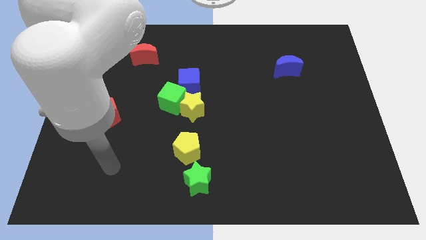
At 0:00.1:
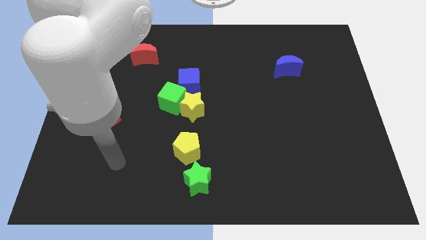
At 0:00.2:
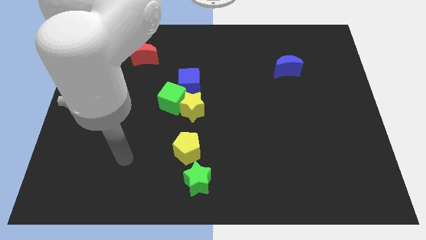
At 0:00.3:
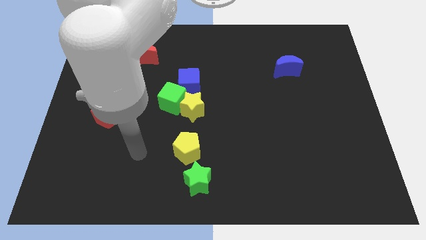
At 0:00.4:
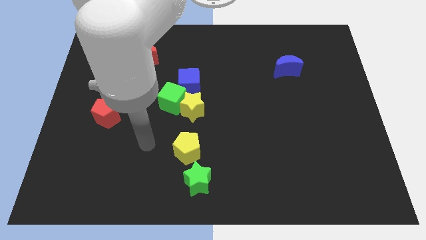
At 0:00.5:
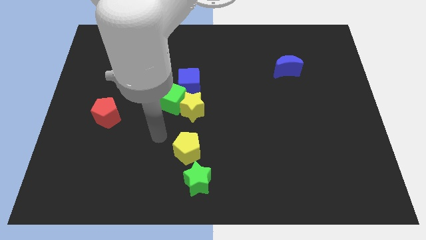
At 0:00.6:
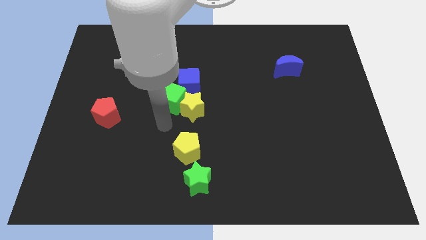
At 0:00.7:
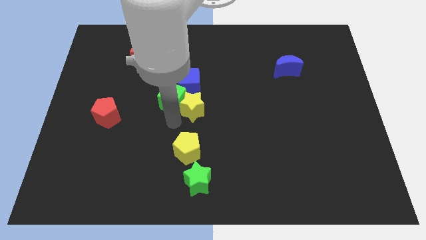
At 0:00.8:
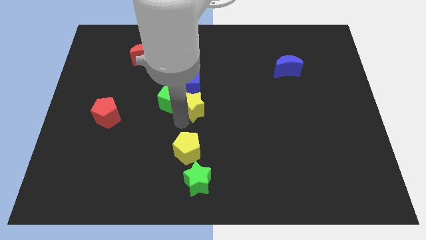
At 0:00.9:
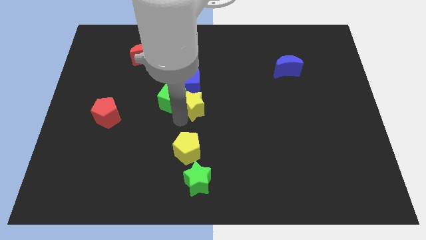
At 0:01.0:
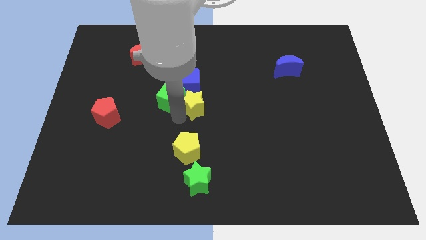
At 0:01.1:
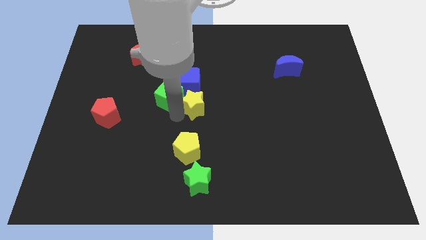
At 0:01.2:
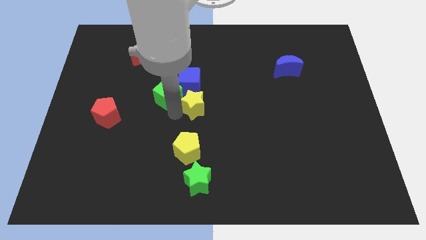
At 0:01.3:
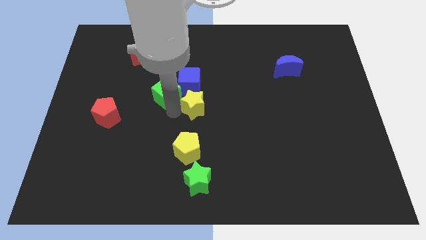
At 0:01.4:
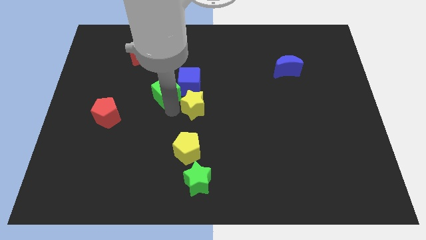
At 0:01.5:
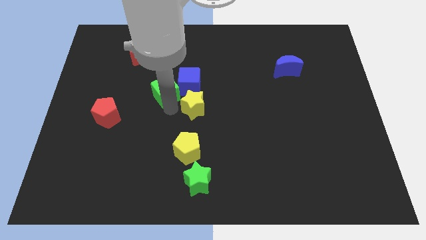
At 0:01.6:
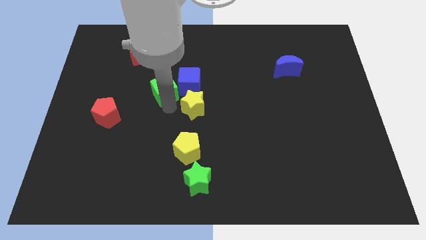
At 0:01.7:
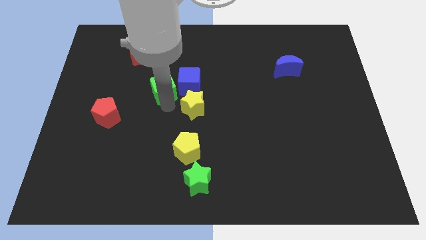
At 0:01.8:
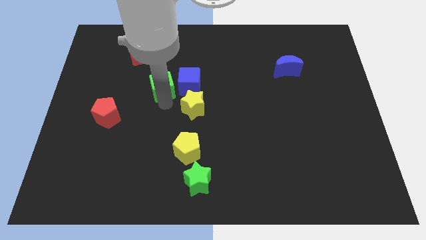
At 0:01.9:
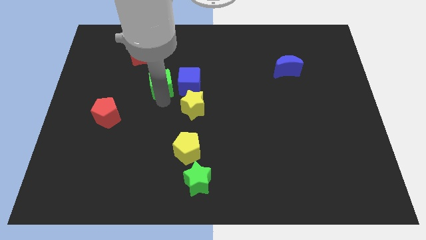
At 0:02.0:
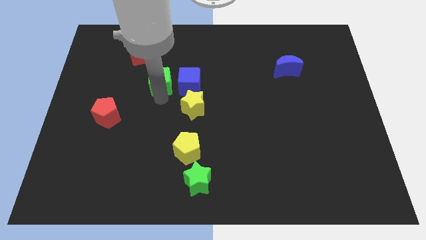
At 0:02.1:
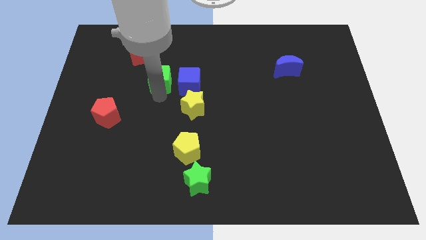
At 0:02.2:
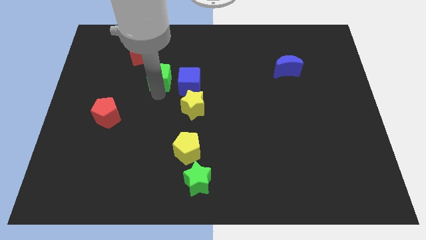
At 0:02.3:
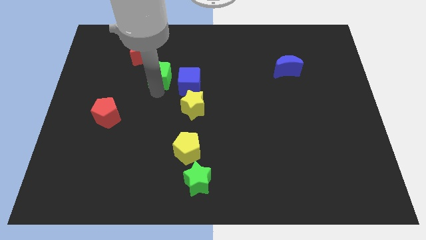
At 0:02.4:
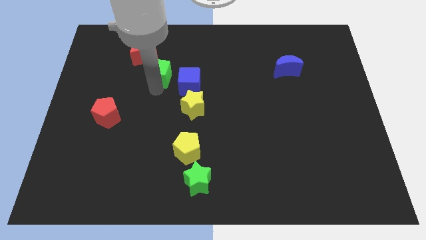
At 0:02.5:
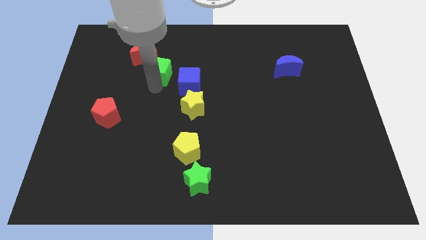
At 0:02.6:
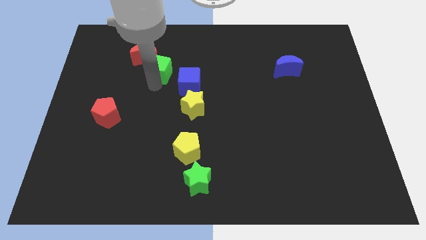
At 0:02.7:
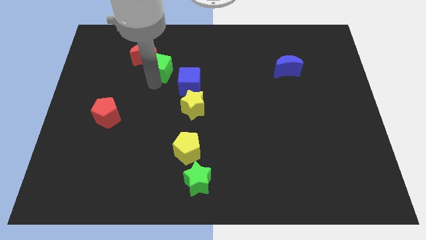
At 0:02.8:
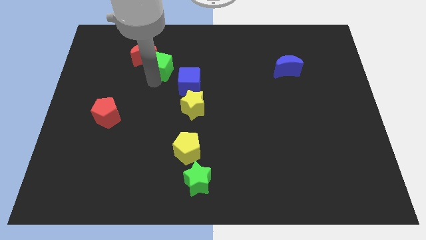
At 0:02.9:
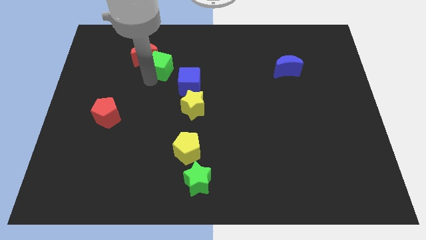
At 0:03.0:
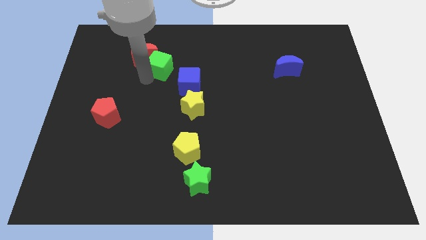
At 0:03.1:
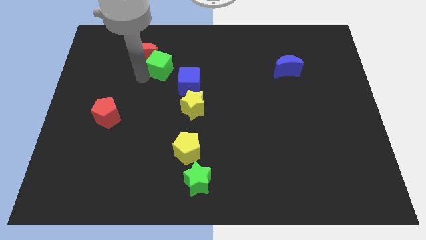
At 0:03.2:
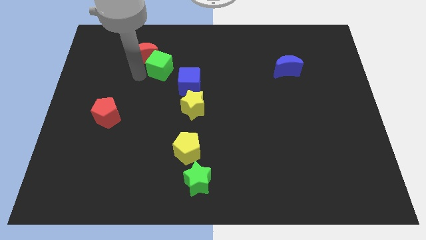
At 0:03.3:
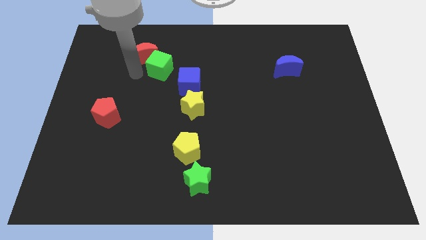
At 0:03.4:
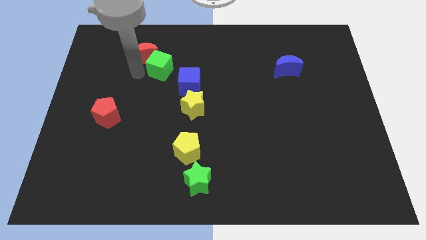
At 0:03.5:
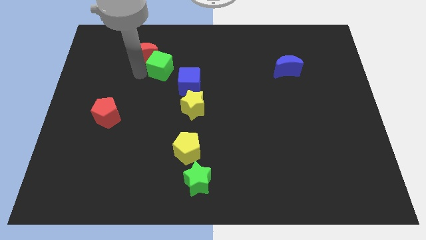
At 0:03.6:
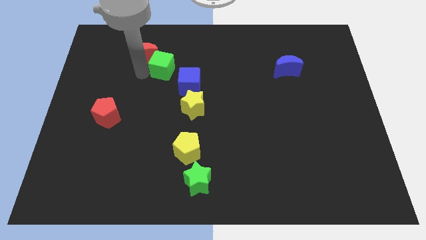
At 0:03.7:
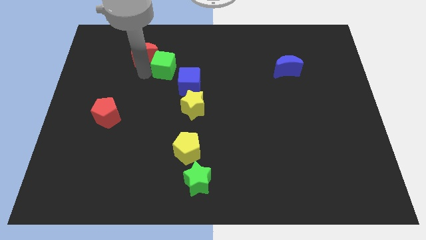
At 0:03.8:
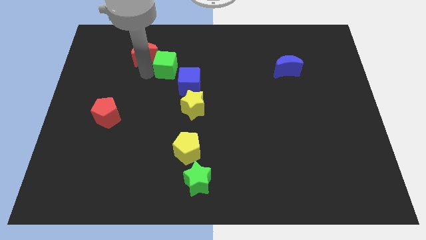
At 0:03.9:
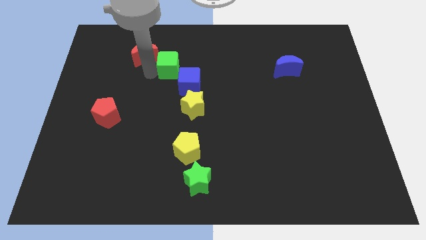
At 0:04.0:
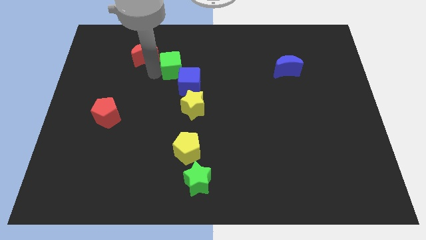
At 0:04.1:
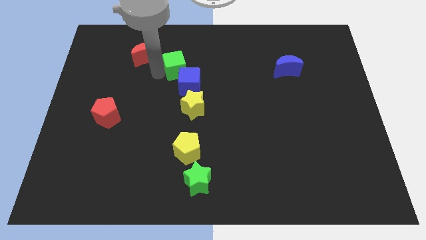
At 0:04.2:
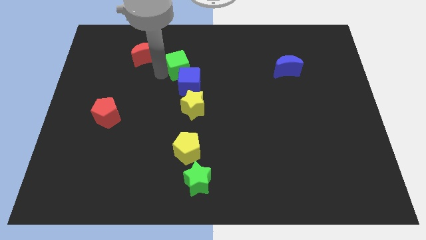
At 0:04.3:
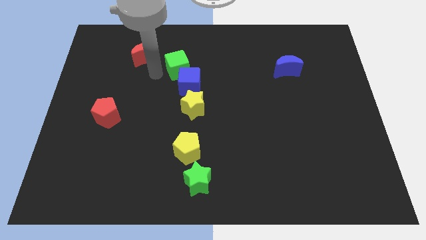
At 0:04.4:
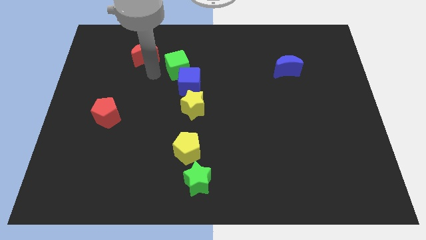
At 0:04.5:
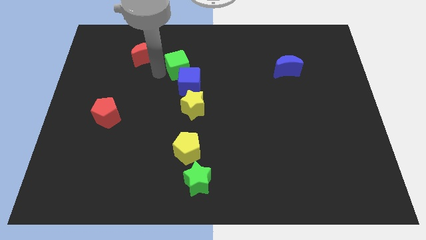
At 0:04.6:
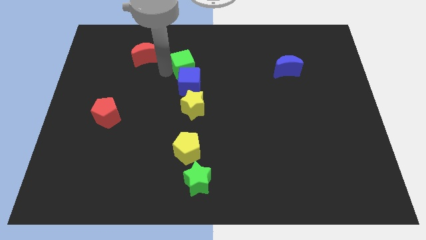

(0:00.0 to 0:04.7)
move the green cube a little bit upwards and to the right

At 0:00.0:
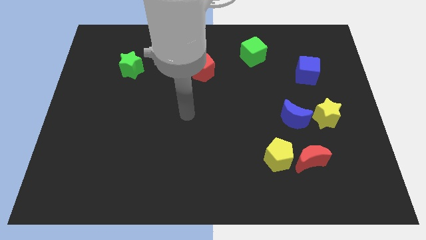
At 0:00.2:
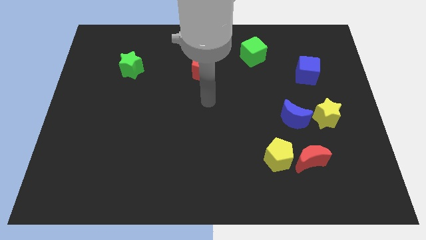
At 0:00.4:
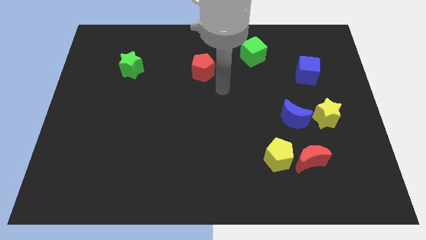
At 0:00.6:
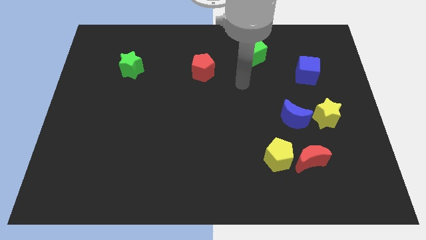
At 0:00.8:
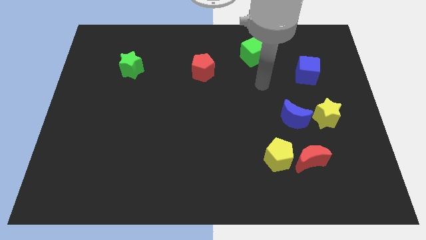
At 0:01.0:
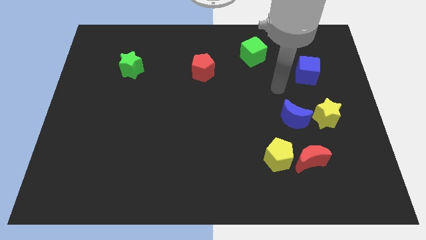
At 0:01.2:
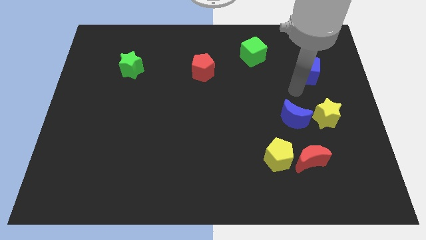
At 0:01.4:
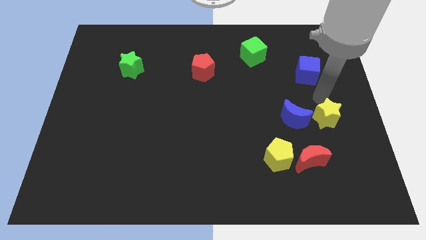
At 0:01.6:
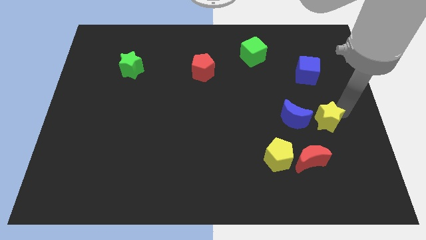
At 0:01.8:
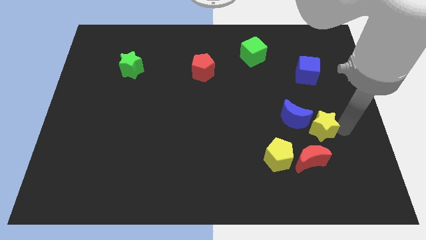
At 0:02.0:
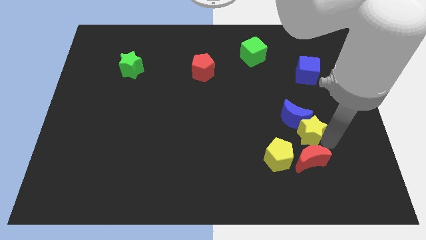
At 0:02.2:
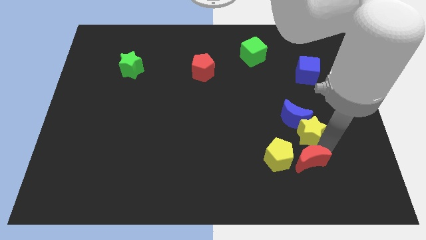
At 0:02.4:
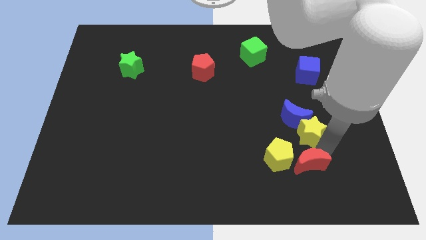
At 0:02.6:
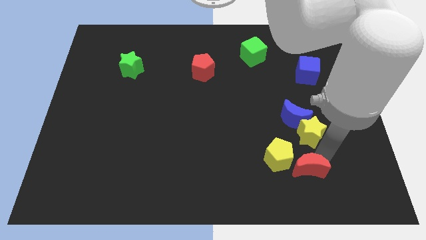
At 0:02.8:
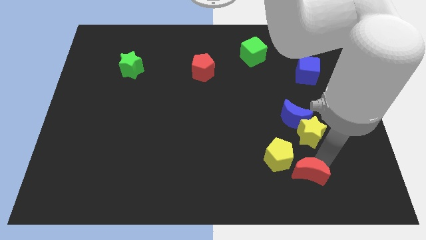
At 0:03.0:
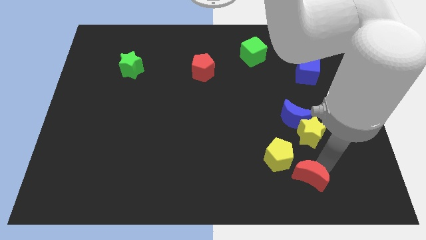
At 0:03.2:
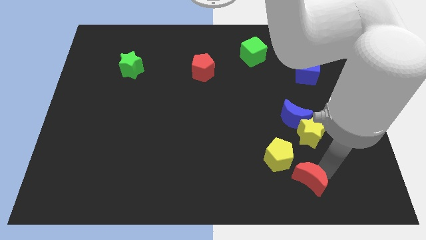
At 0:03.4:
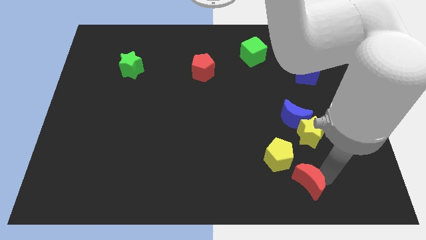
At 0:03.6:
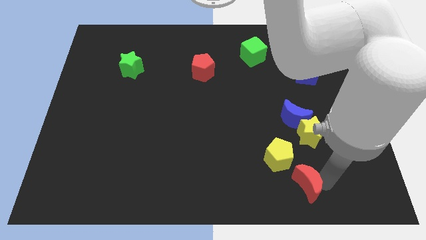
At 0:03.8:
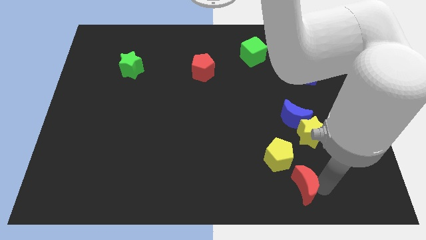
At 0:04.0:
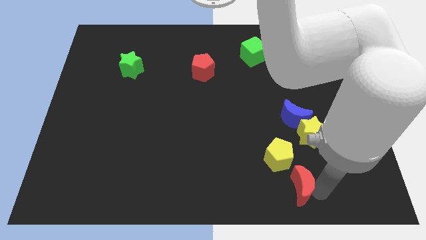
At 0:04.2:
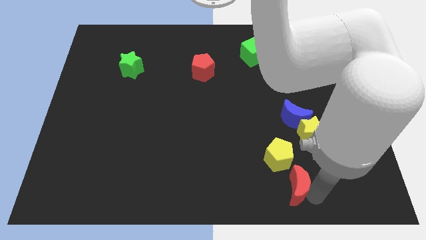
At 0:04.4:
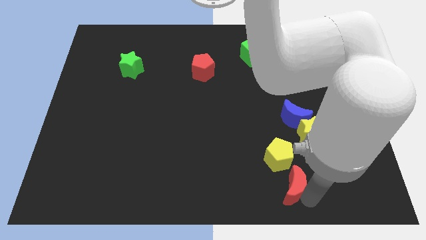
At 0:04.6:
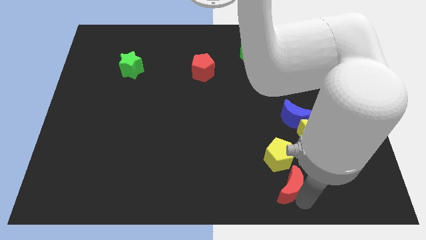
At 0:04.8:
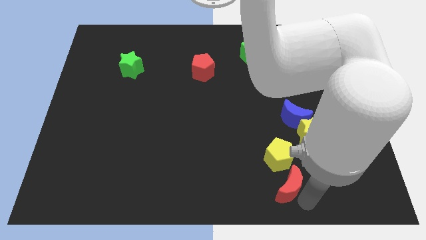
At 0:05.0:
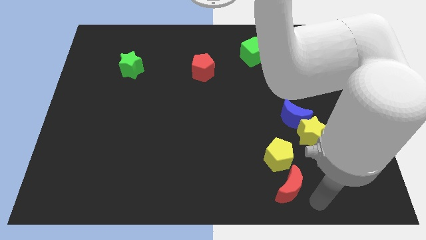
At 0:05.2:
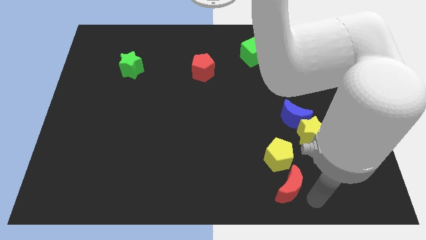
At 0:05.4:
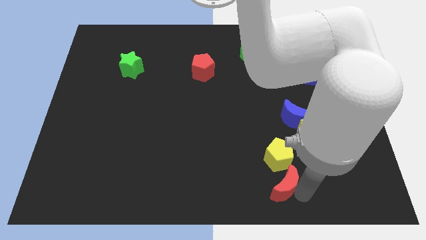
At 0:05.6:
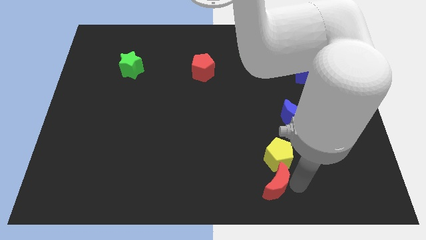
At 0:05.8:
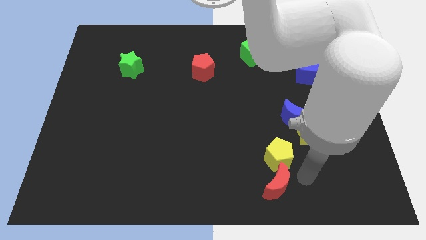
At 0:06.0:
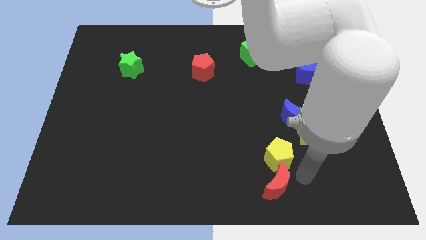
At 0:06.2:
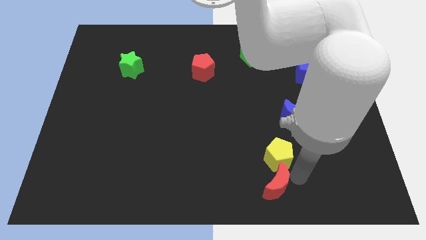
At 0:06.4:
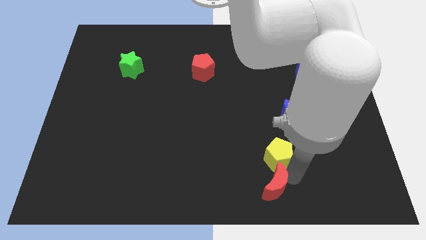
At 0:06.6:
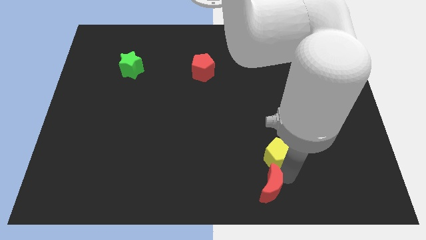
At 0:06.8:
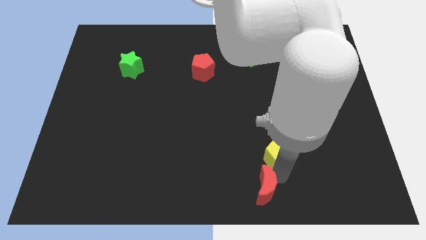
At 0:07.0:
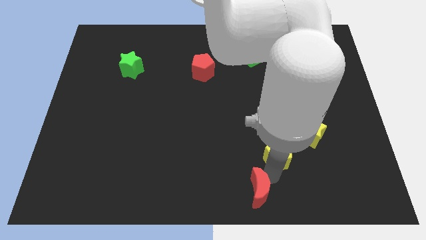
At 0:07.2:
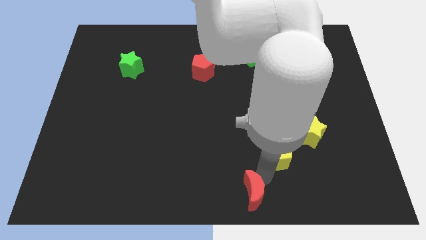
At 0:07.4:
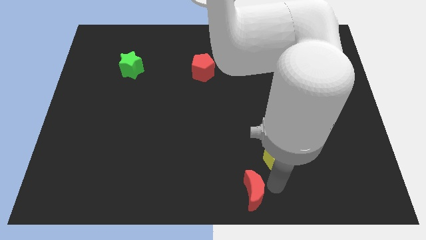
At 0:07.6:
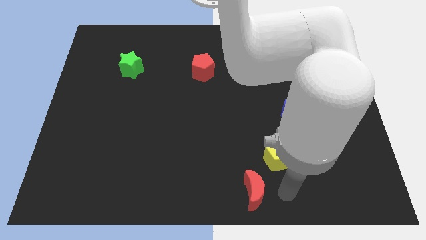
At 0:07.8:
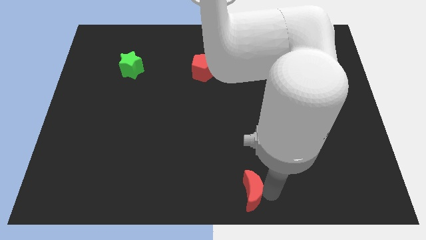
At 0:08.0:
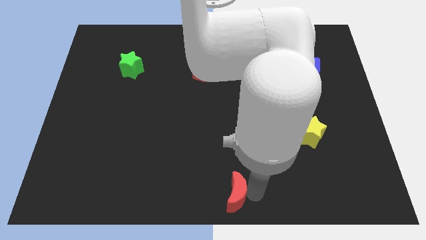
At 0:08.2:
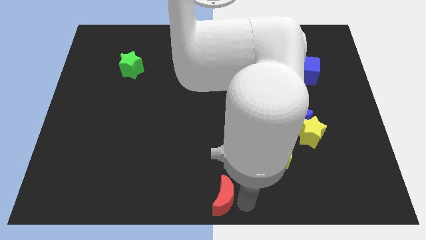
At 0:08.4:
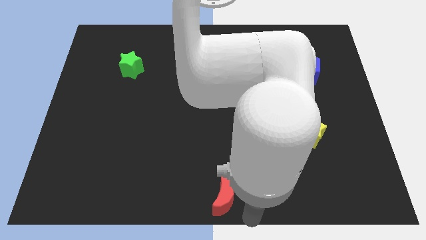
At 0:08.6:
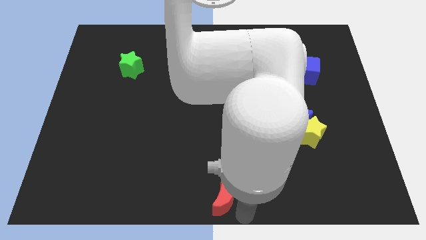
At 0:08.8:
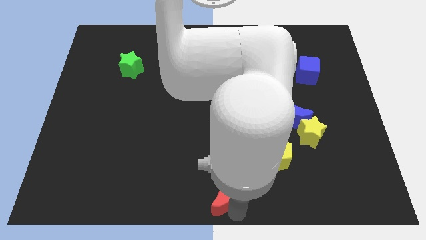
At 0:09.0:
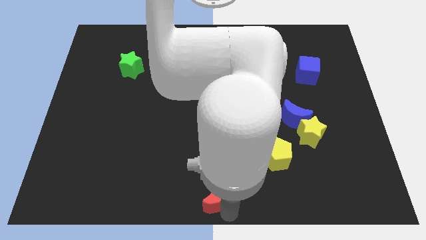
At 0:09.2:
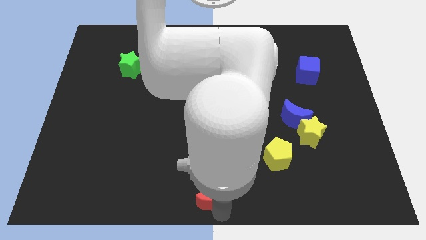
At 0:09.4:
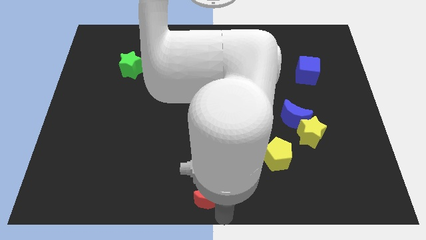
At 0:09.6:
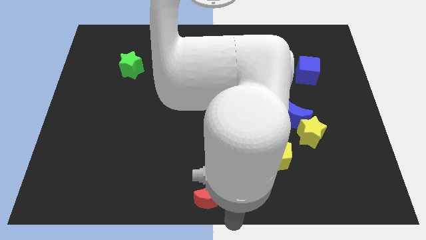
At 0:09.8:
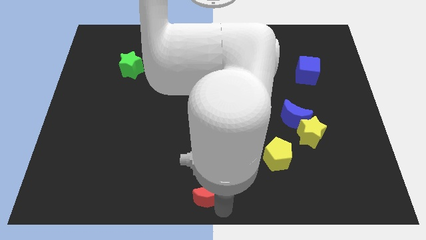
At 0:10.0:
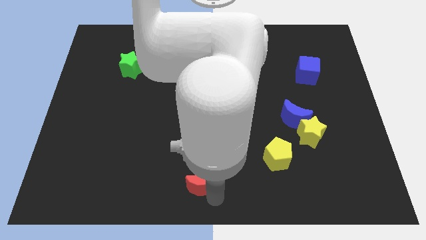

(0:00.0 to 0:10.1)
move the red moon to the left
